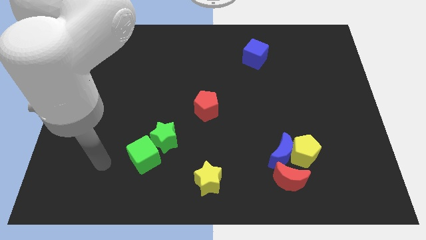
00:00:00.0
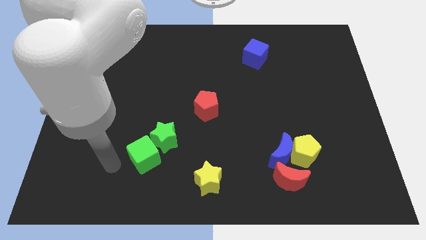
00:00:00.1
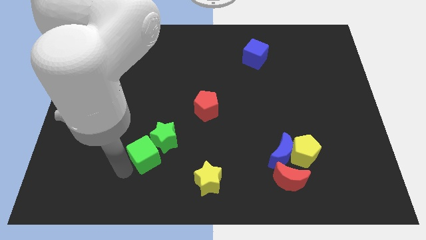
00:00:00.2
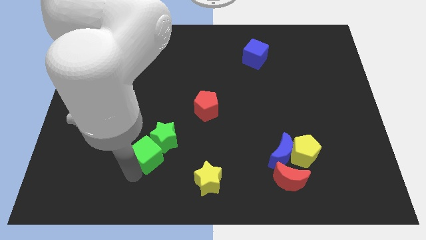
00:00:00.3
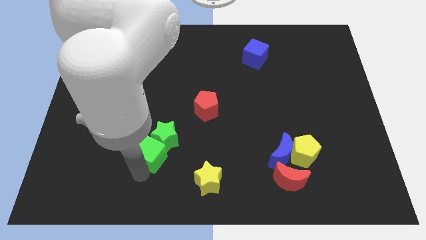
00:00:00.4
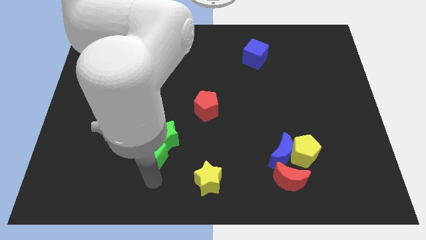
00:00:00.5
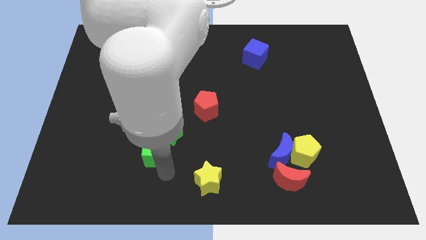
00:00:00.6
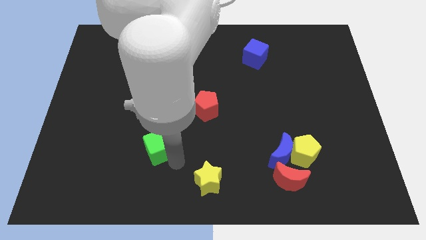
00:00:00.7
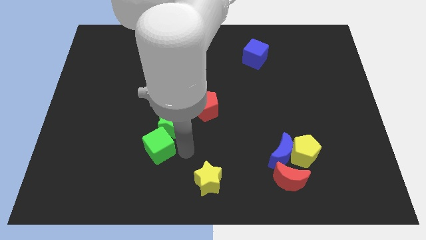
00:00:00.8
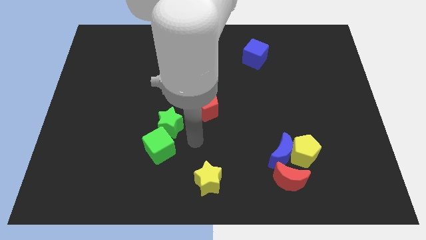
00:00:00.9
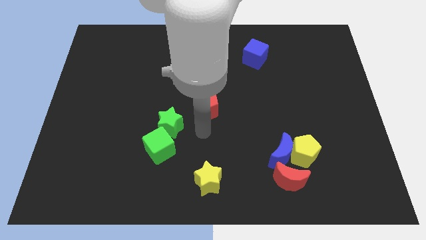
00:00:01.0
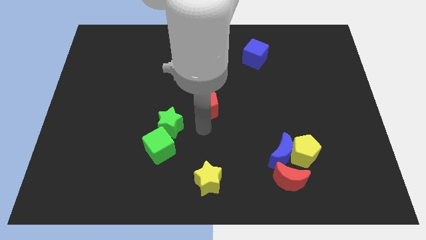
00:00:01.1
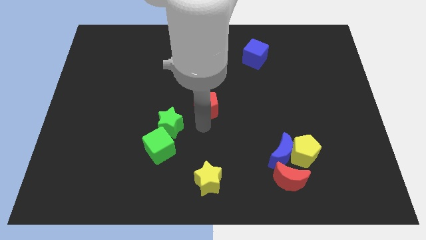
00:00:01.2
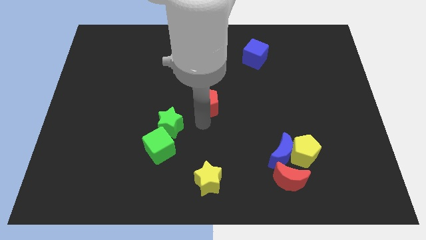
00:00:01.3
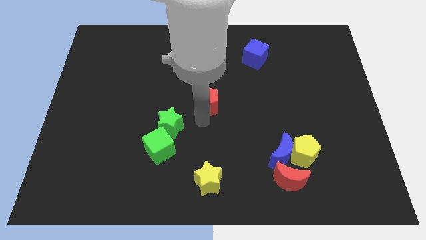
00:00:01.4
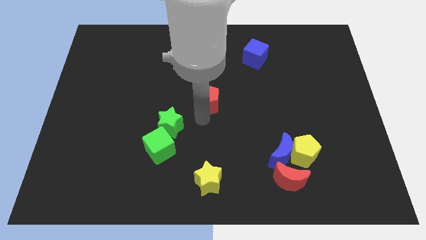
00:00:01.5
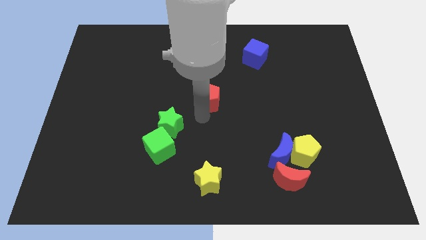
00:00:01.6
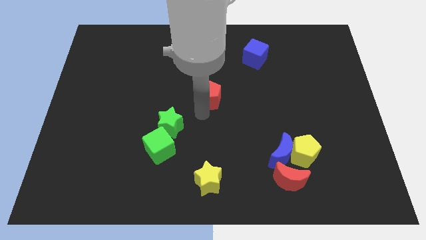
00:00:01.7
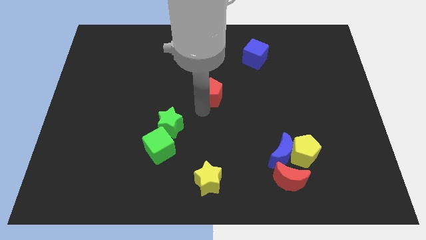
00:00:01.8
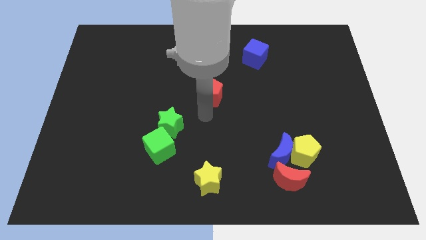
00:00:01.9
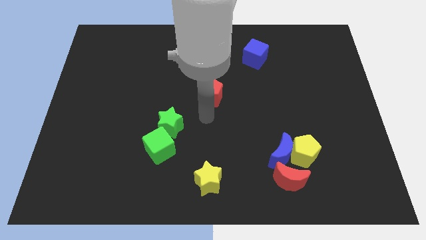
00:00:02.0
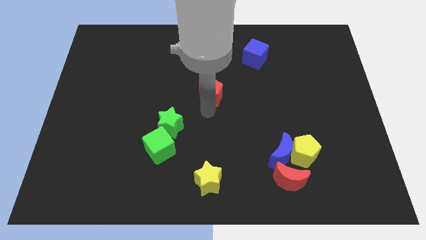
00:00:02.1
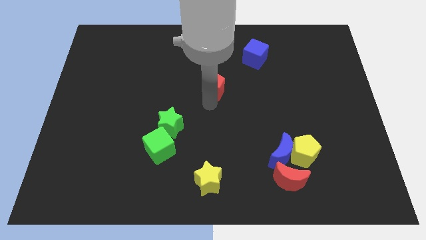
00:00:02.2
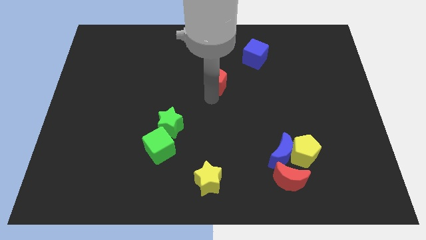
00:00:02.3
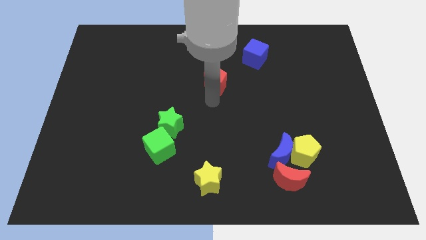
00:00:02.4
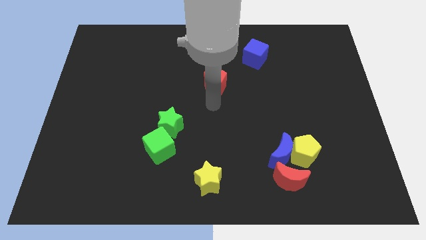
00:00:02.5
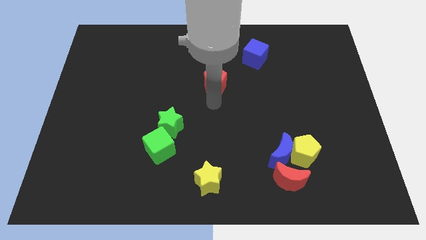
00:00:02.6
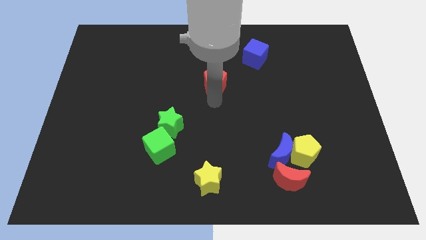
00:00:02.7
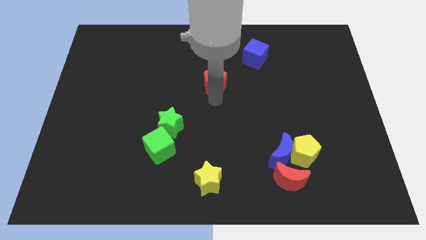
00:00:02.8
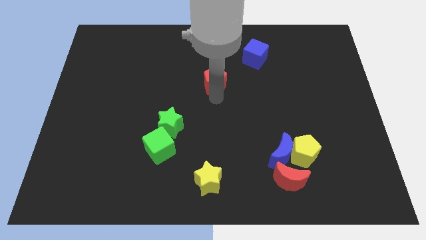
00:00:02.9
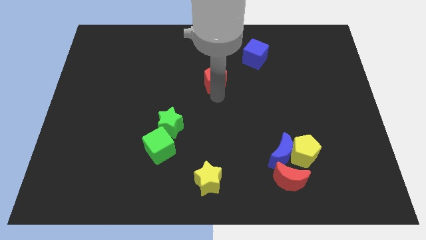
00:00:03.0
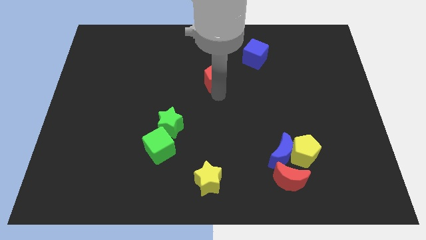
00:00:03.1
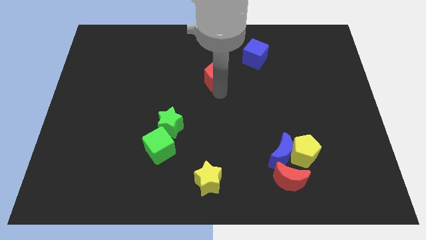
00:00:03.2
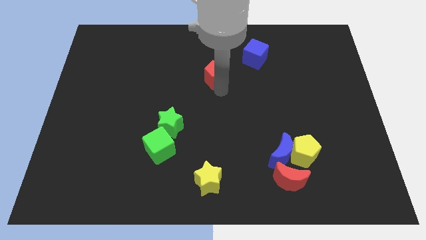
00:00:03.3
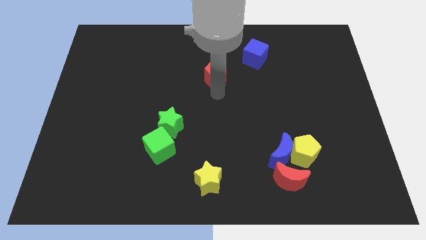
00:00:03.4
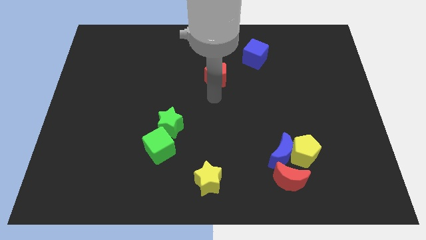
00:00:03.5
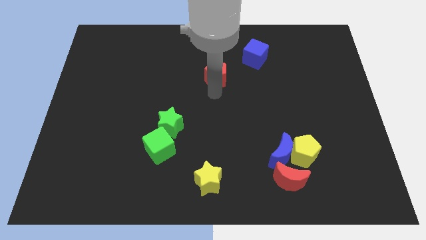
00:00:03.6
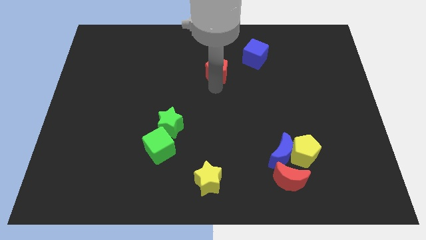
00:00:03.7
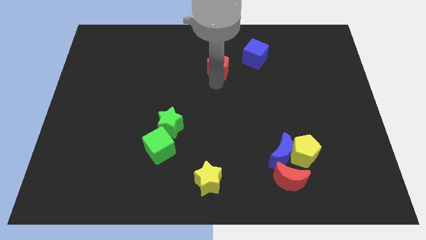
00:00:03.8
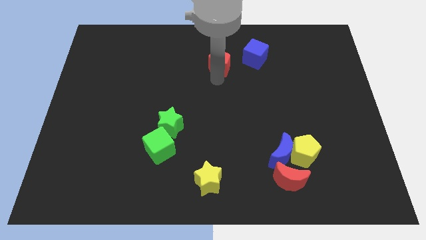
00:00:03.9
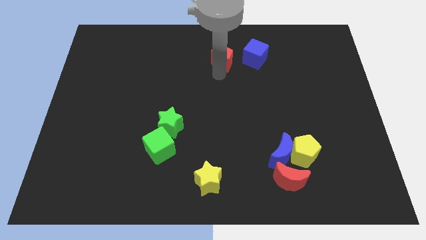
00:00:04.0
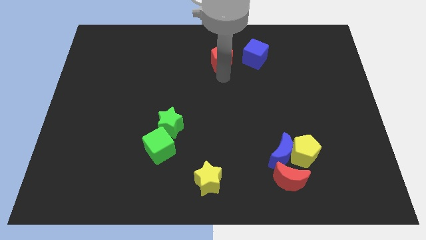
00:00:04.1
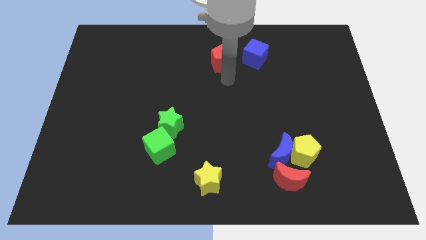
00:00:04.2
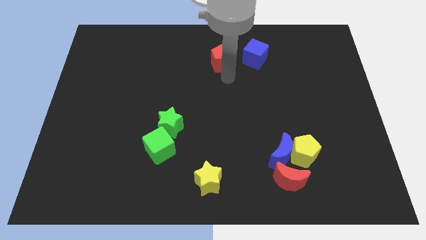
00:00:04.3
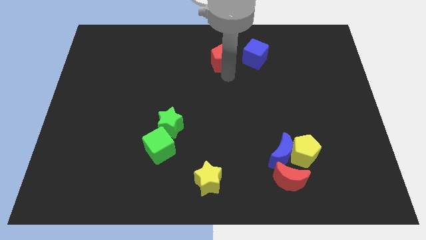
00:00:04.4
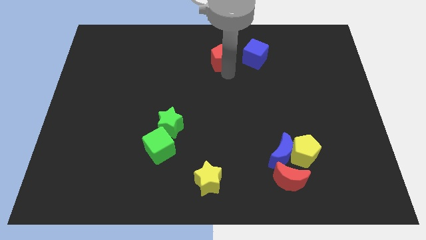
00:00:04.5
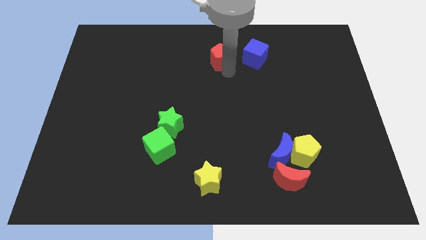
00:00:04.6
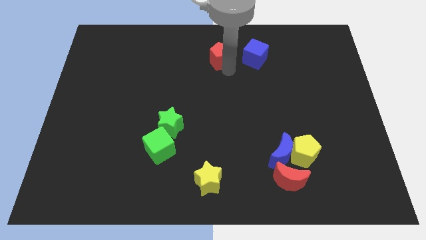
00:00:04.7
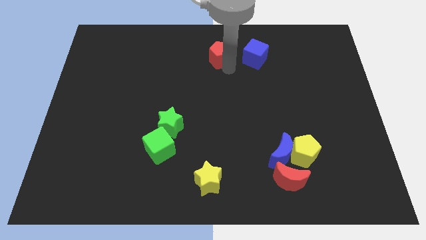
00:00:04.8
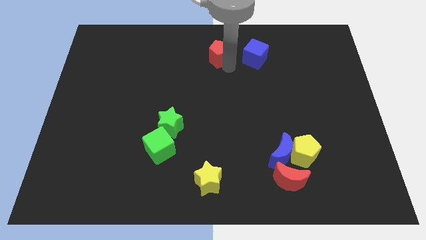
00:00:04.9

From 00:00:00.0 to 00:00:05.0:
move the red pentagon to the top side

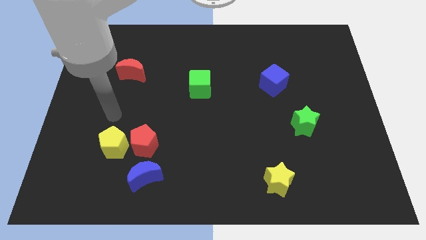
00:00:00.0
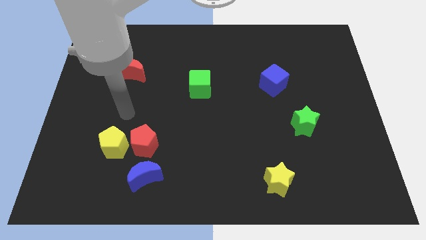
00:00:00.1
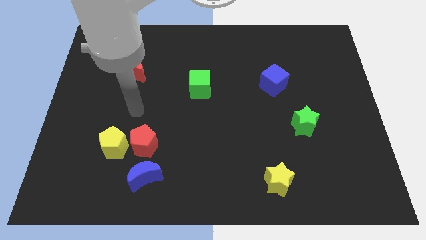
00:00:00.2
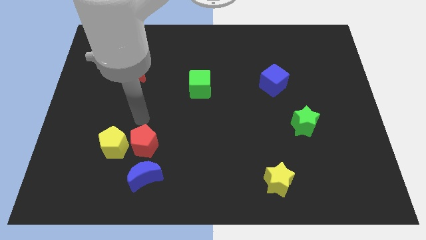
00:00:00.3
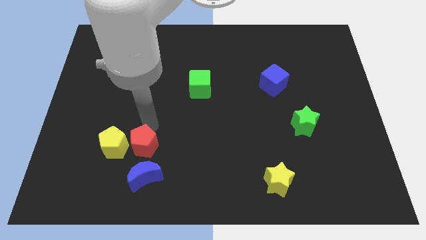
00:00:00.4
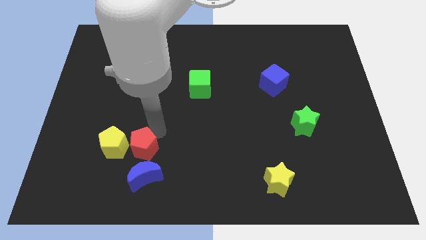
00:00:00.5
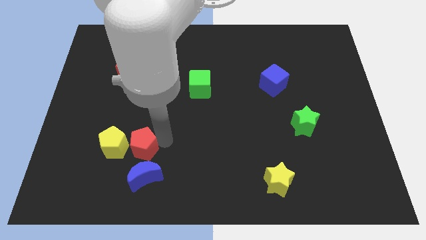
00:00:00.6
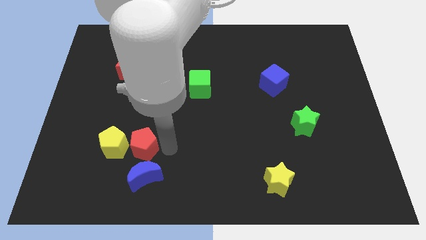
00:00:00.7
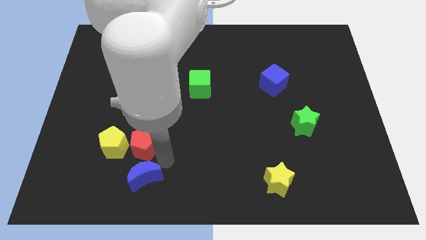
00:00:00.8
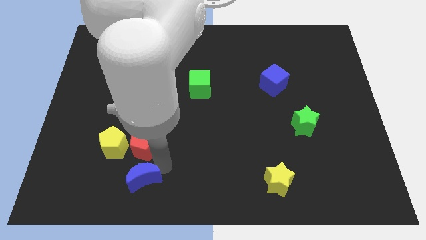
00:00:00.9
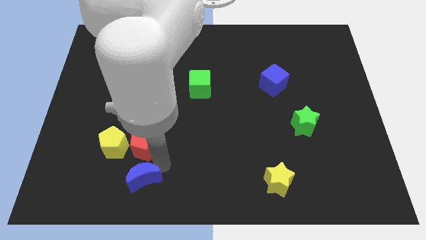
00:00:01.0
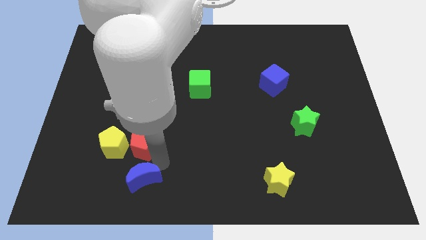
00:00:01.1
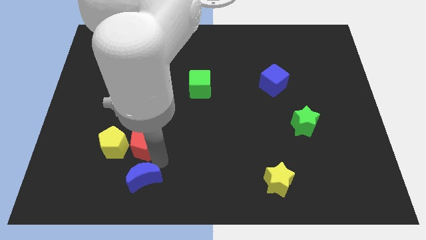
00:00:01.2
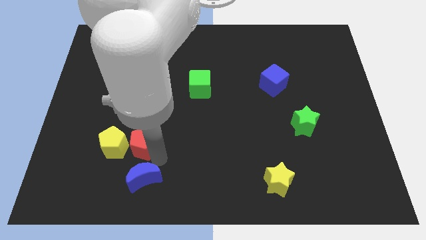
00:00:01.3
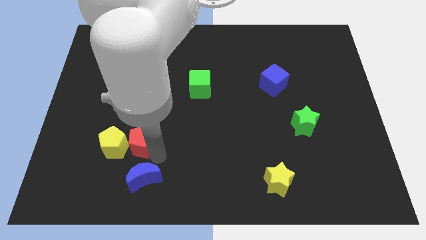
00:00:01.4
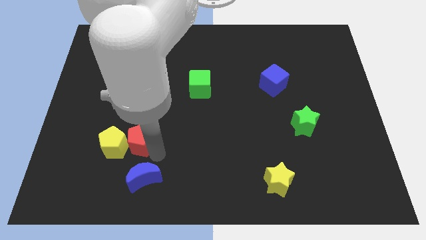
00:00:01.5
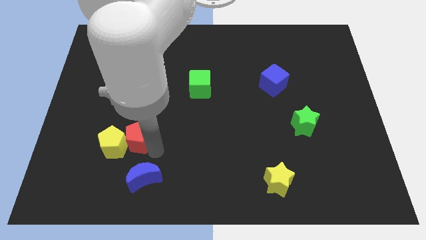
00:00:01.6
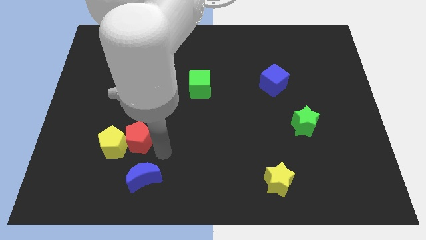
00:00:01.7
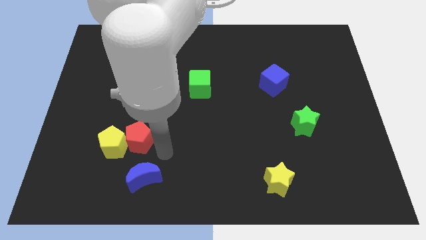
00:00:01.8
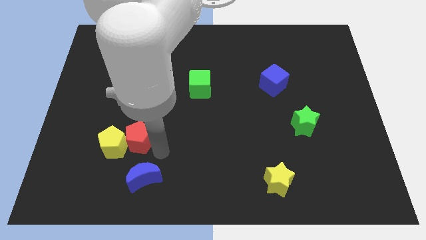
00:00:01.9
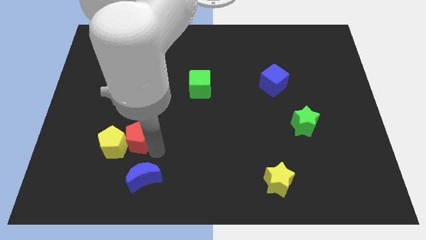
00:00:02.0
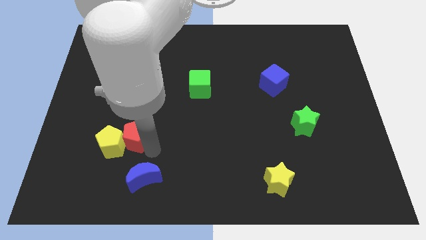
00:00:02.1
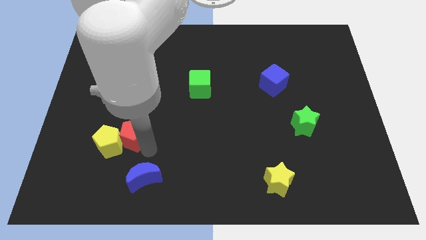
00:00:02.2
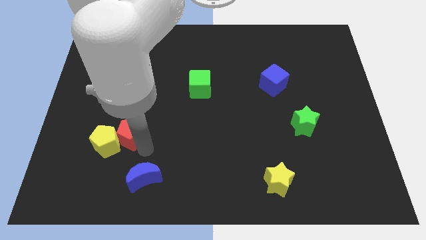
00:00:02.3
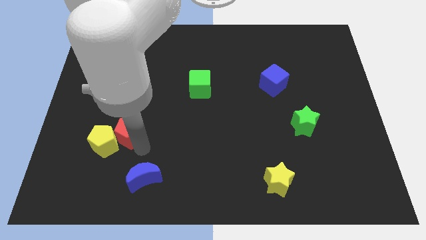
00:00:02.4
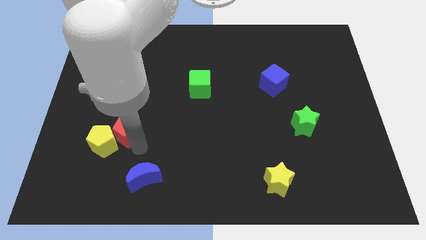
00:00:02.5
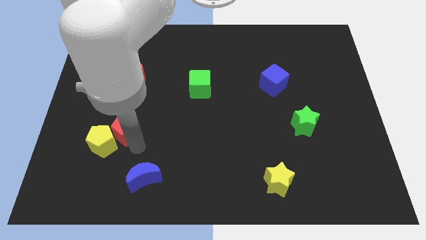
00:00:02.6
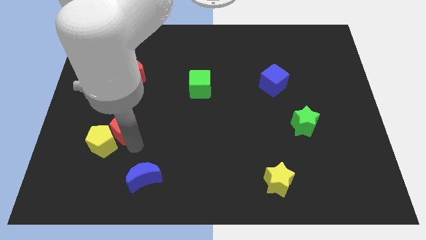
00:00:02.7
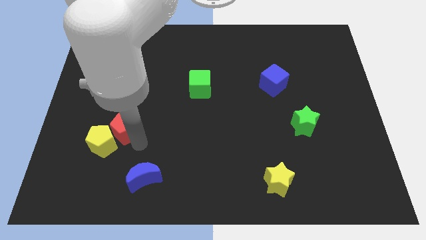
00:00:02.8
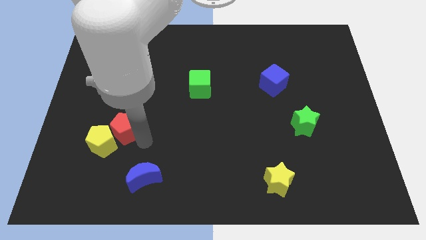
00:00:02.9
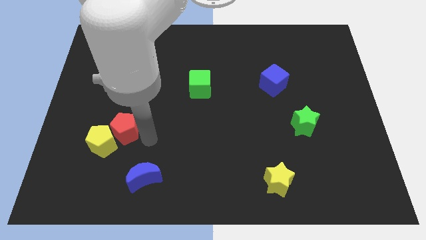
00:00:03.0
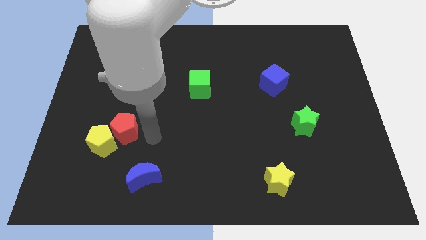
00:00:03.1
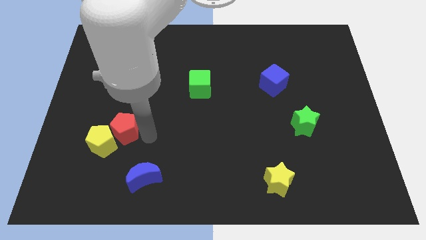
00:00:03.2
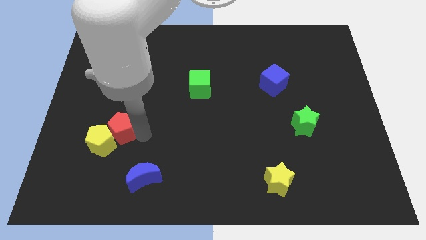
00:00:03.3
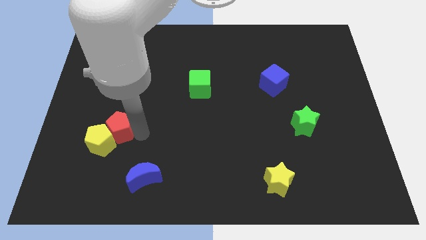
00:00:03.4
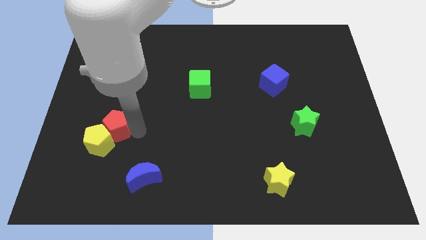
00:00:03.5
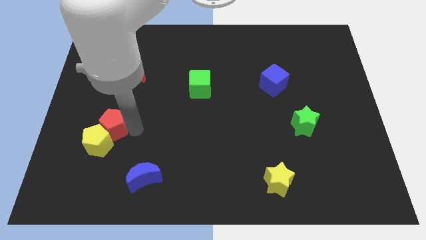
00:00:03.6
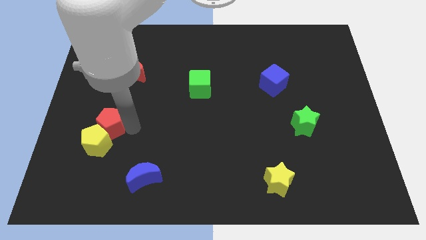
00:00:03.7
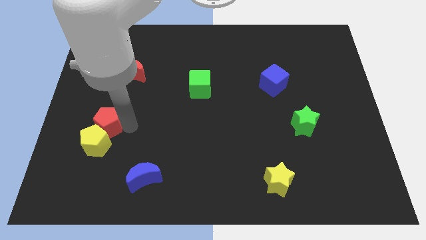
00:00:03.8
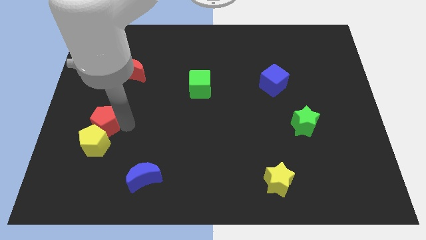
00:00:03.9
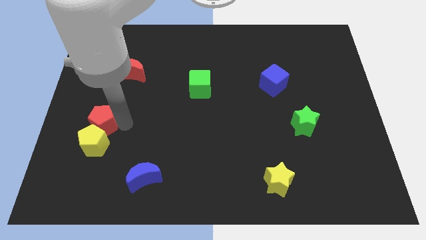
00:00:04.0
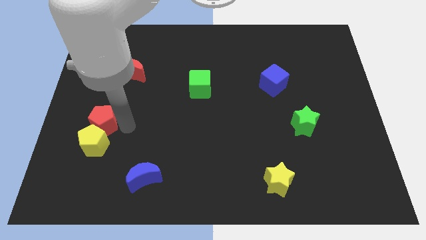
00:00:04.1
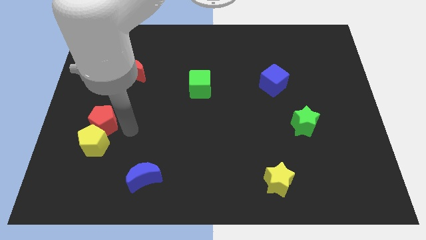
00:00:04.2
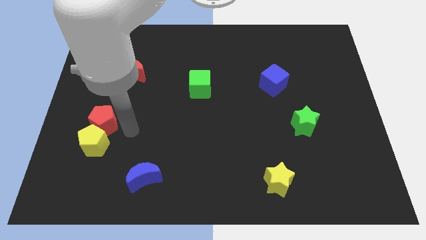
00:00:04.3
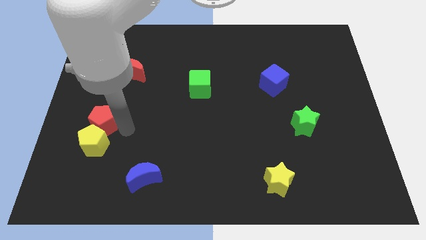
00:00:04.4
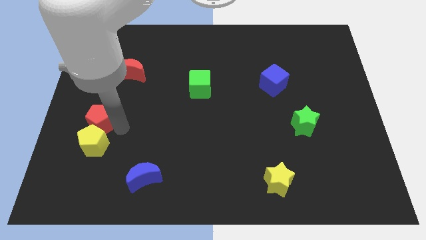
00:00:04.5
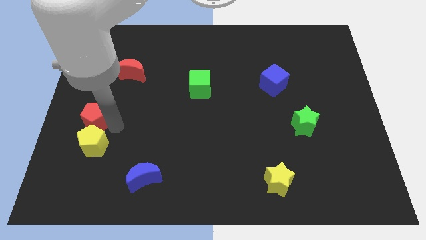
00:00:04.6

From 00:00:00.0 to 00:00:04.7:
put the red pentagon to the left side of the board
